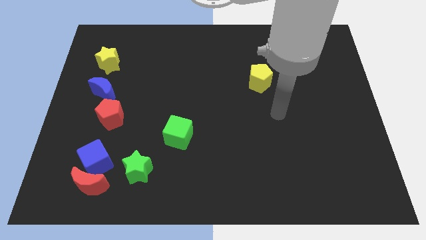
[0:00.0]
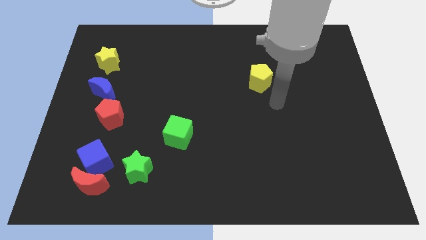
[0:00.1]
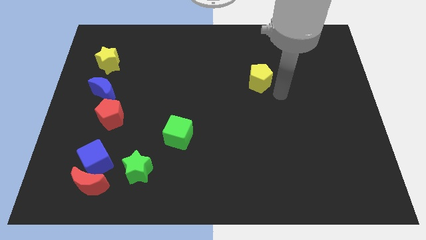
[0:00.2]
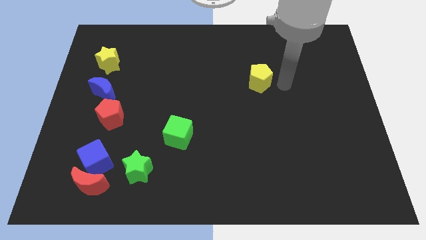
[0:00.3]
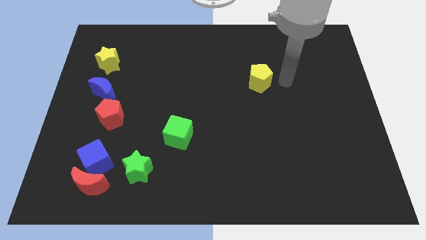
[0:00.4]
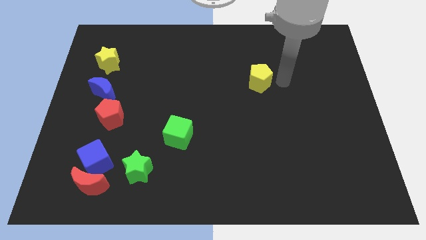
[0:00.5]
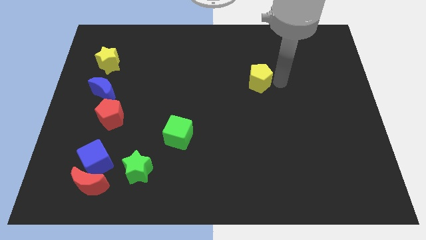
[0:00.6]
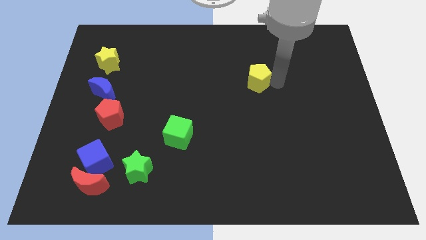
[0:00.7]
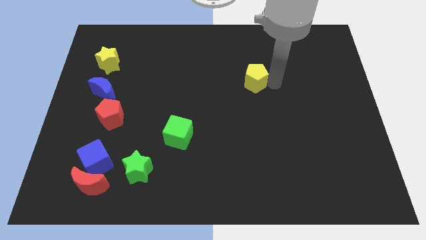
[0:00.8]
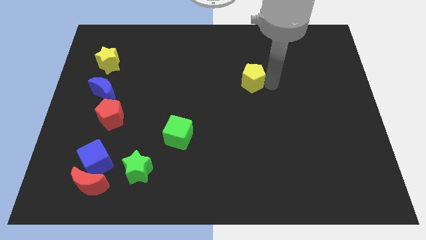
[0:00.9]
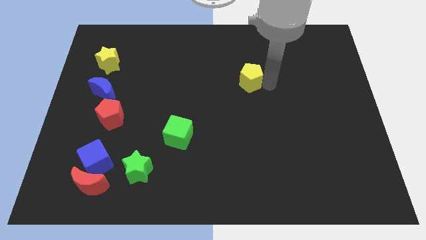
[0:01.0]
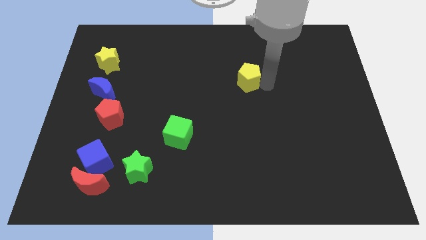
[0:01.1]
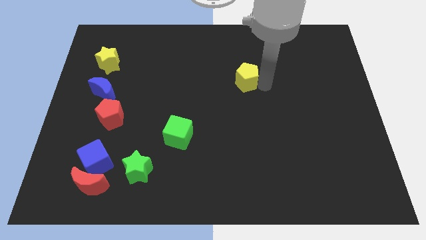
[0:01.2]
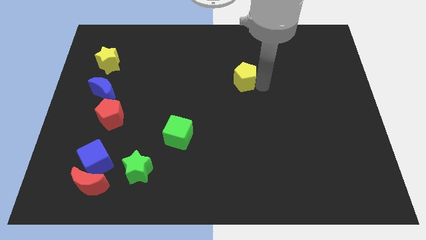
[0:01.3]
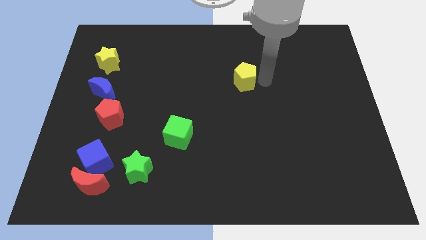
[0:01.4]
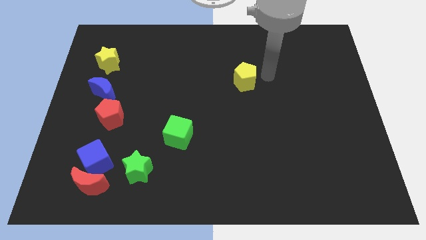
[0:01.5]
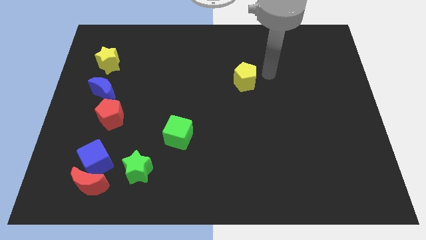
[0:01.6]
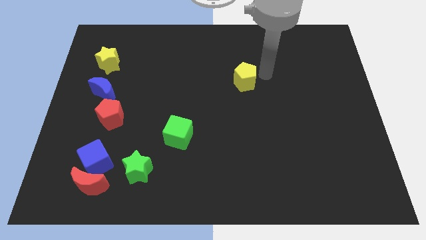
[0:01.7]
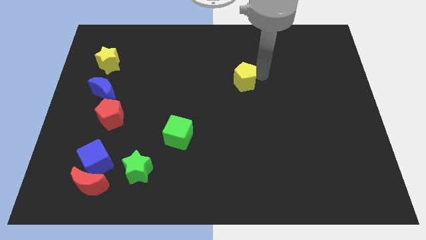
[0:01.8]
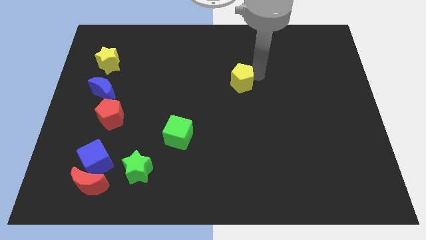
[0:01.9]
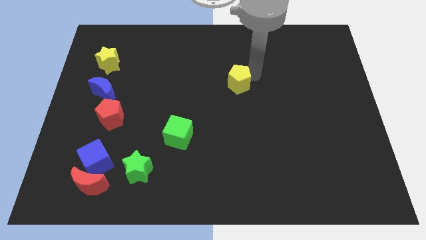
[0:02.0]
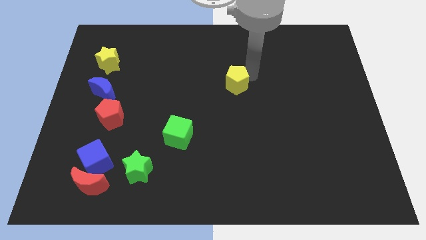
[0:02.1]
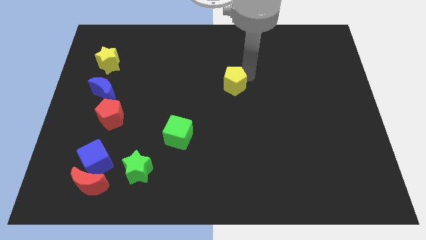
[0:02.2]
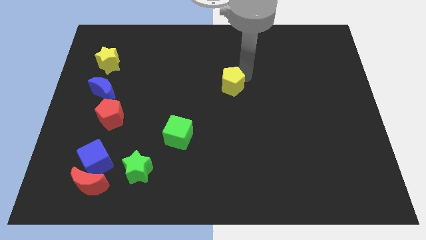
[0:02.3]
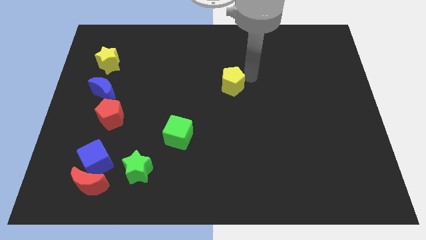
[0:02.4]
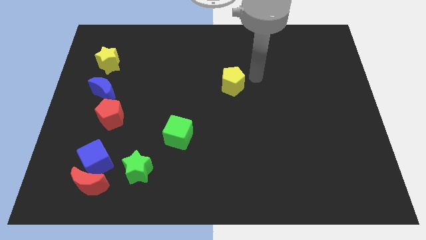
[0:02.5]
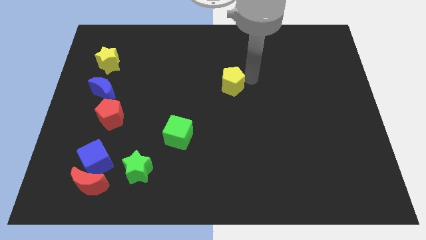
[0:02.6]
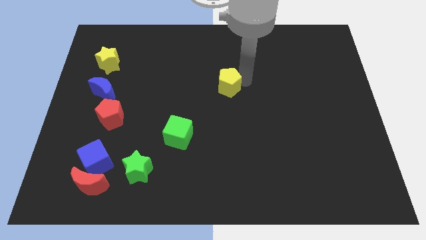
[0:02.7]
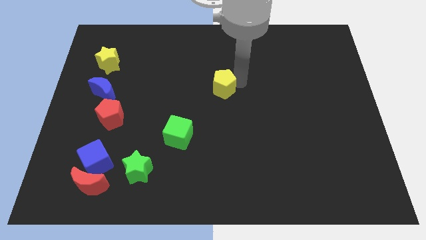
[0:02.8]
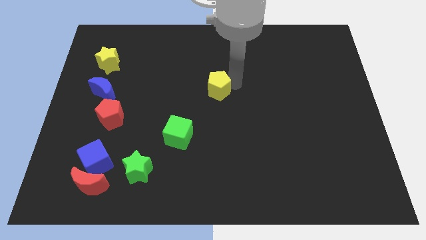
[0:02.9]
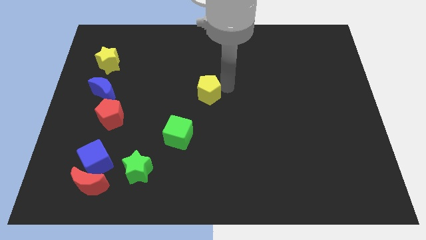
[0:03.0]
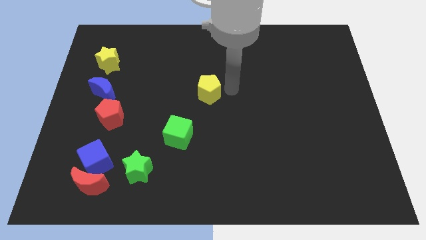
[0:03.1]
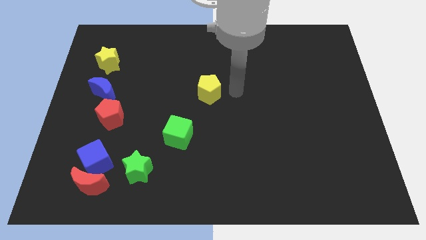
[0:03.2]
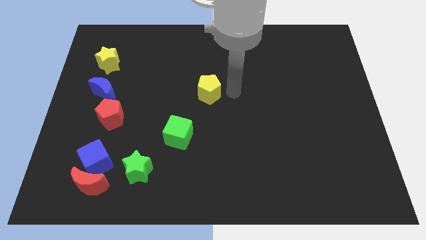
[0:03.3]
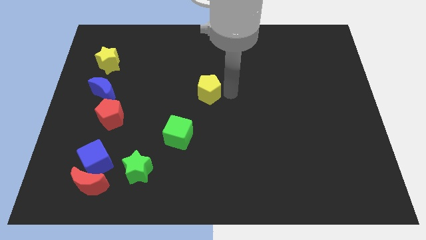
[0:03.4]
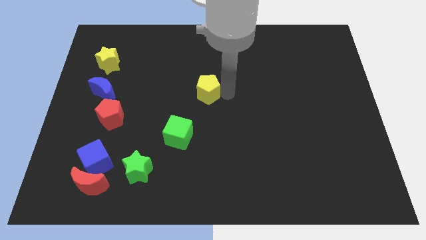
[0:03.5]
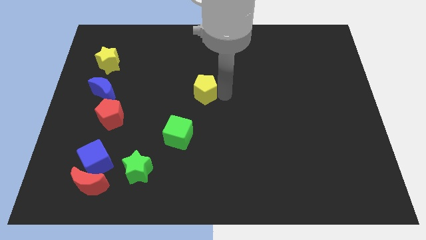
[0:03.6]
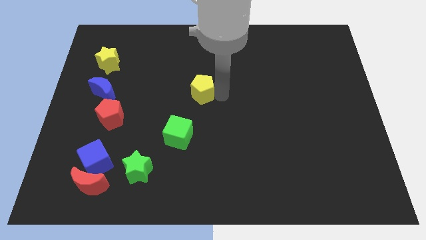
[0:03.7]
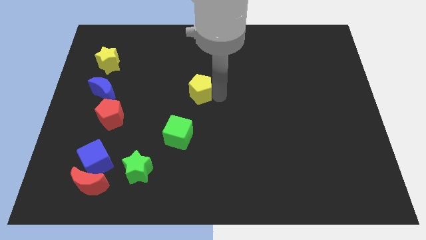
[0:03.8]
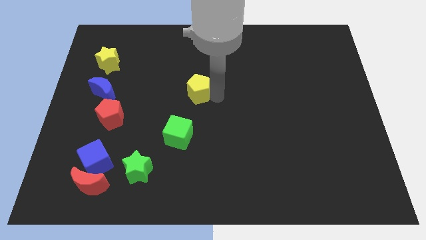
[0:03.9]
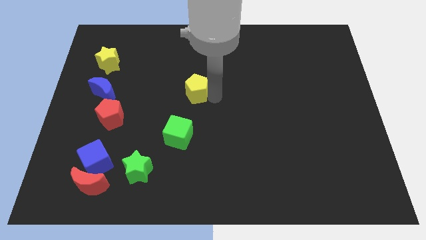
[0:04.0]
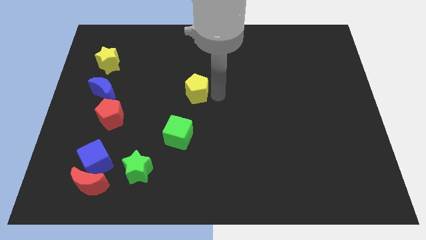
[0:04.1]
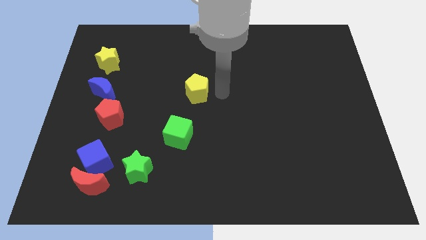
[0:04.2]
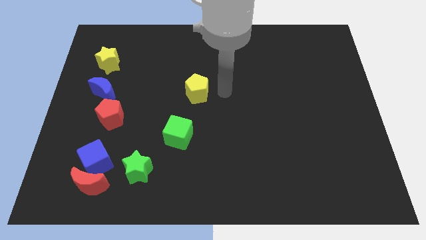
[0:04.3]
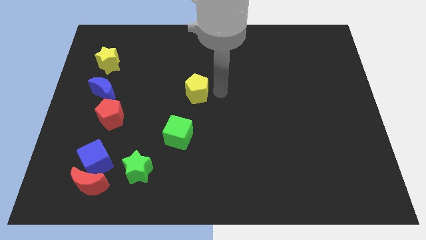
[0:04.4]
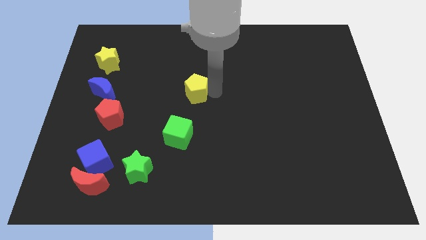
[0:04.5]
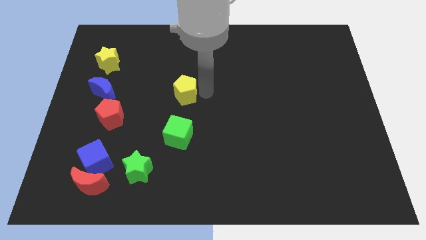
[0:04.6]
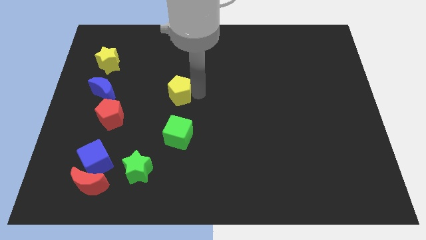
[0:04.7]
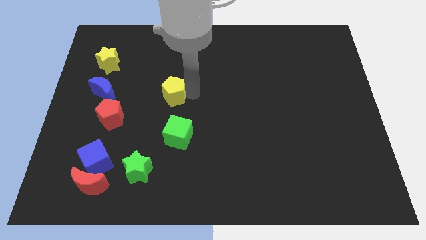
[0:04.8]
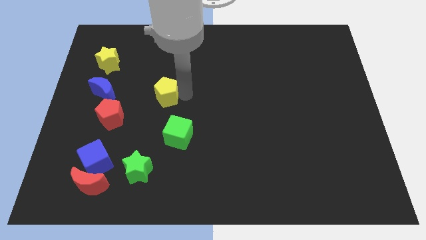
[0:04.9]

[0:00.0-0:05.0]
put the yellow pentagon just right of the blue moon

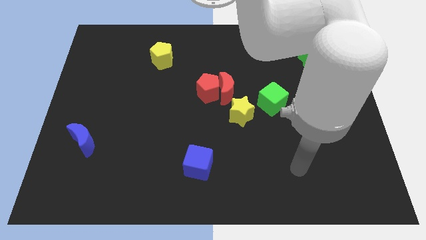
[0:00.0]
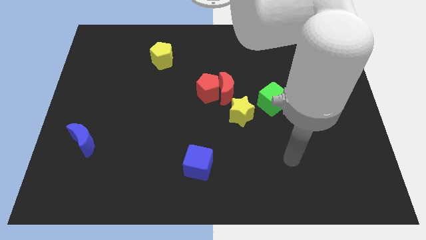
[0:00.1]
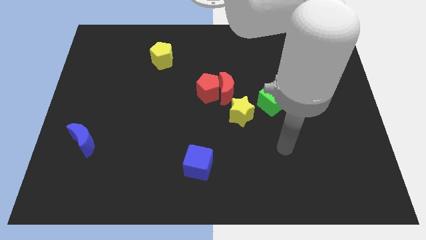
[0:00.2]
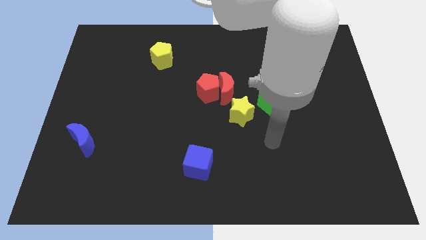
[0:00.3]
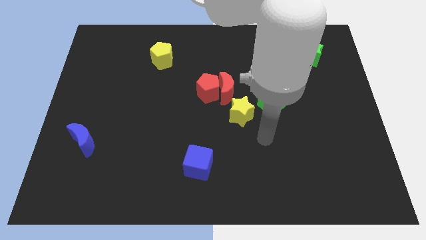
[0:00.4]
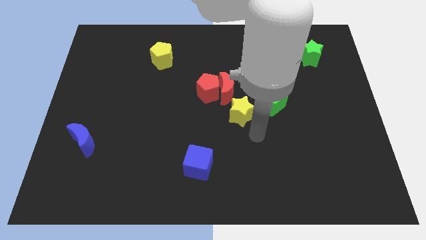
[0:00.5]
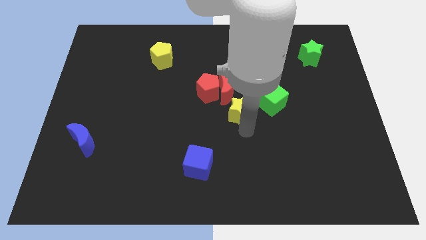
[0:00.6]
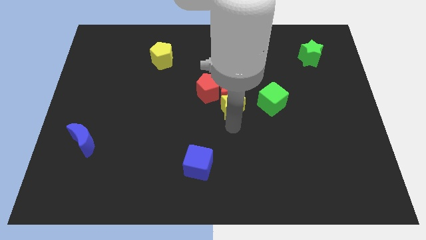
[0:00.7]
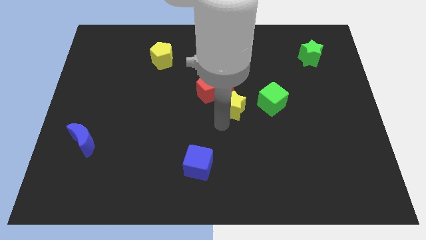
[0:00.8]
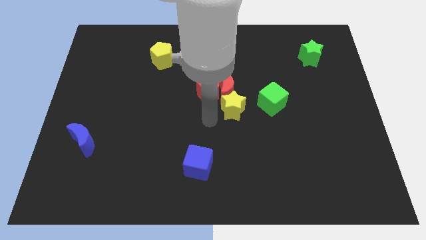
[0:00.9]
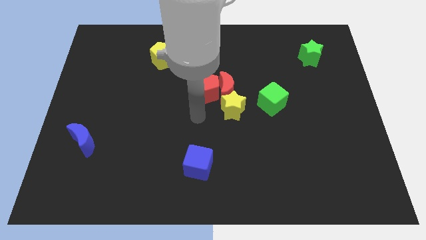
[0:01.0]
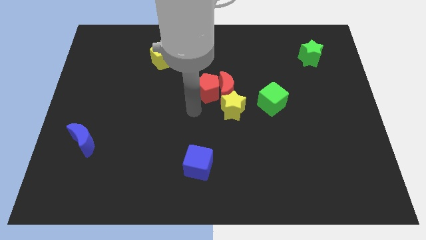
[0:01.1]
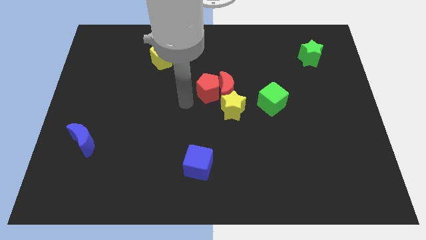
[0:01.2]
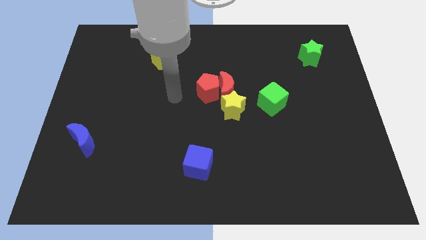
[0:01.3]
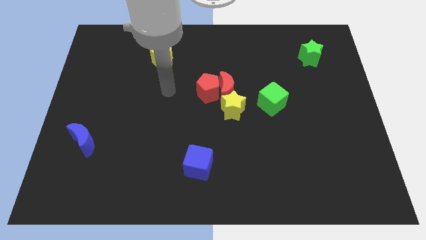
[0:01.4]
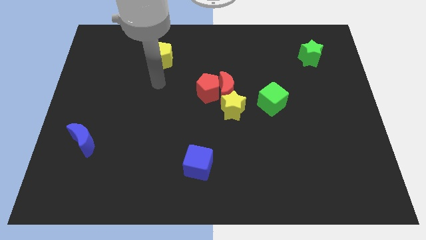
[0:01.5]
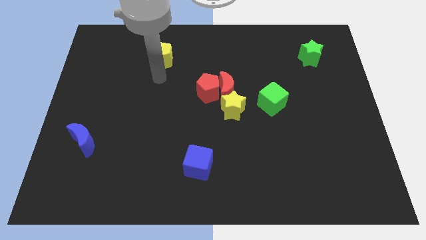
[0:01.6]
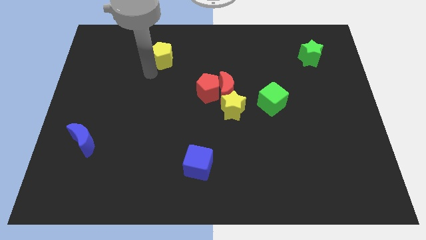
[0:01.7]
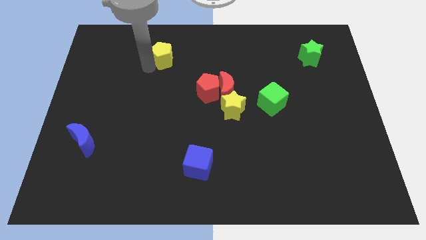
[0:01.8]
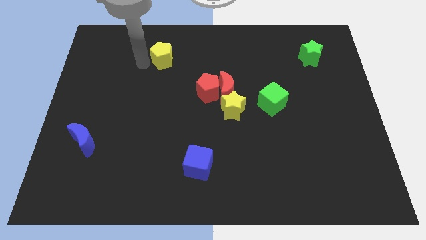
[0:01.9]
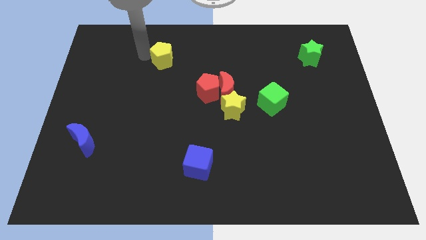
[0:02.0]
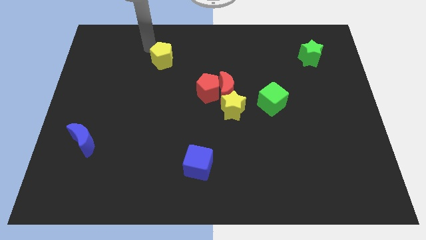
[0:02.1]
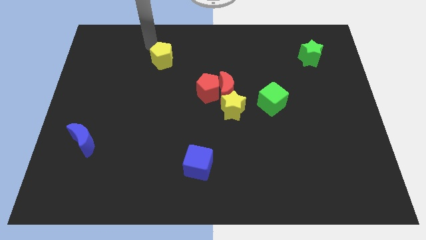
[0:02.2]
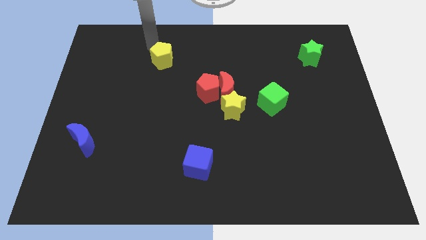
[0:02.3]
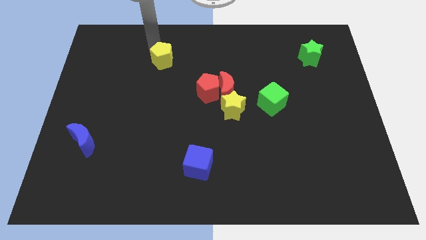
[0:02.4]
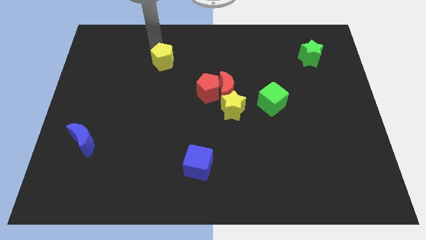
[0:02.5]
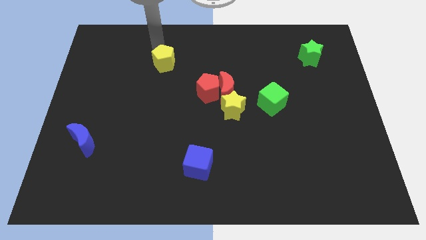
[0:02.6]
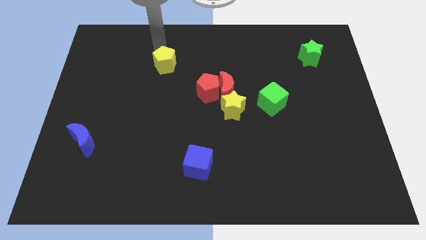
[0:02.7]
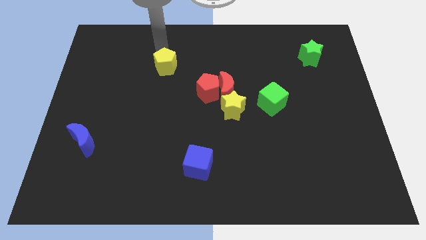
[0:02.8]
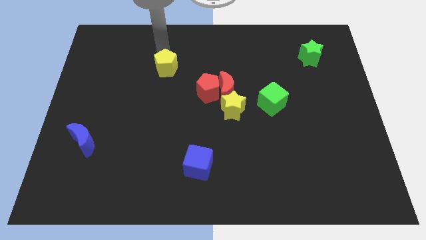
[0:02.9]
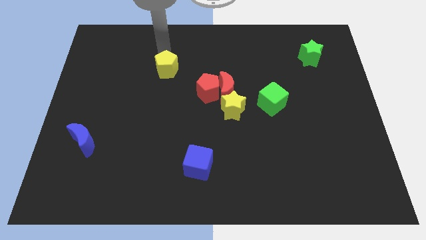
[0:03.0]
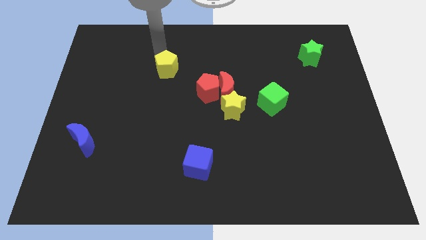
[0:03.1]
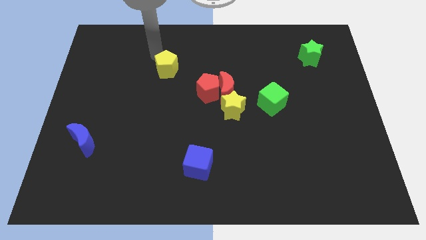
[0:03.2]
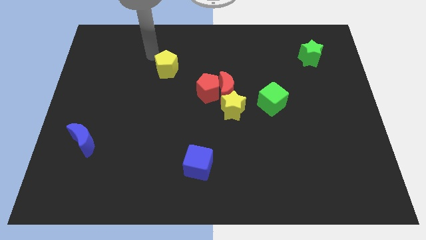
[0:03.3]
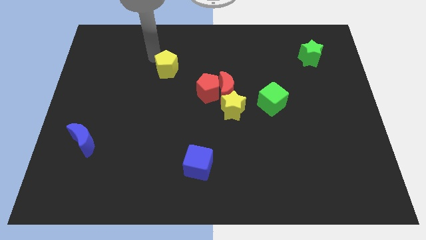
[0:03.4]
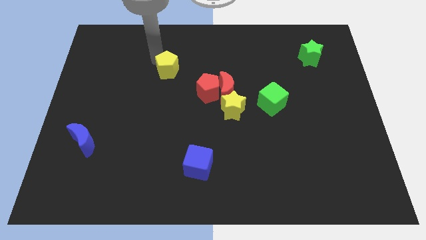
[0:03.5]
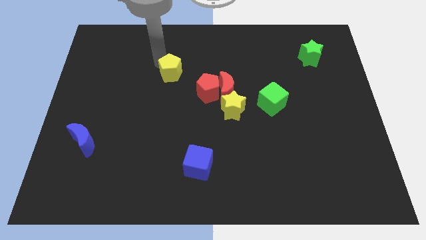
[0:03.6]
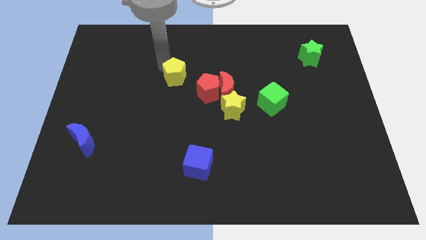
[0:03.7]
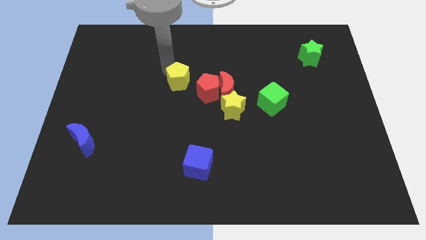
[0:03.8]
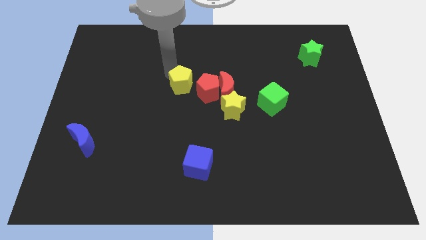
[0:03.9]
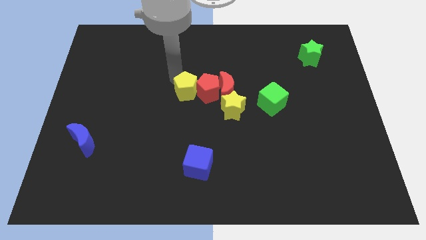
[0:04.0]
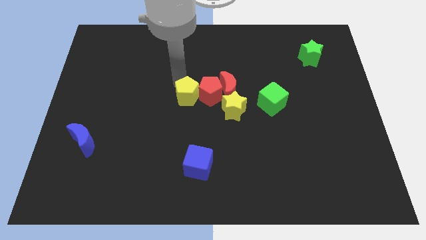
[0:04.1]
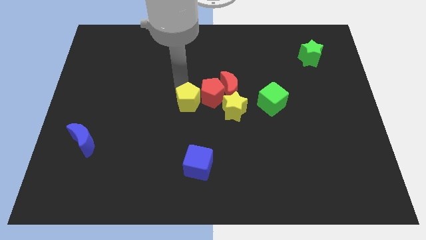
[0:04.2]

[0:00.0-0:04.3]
slide the yellow pentagon diagonally down and to the left of the red moon
